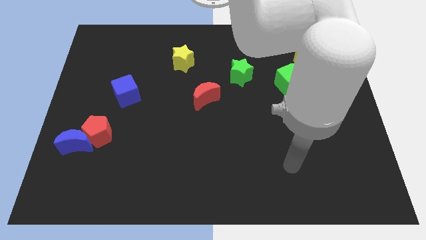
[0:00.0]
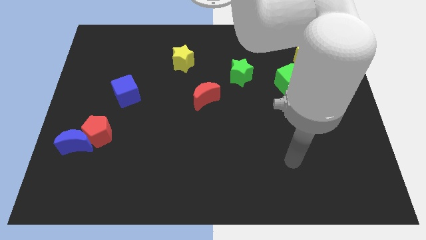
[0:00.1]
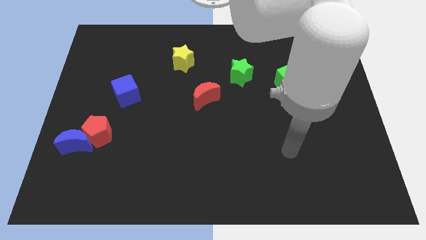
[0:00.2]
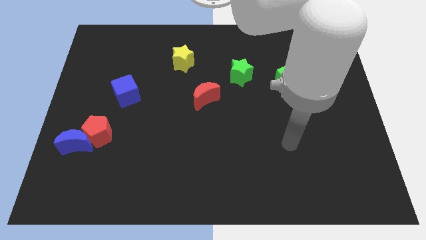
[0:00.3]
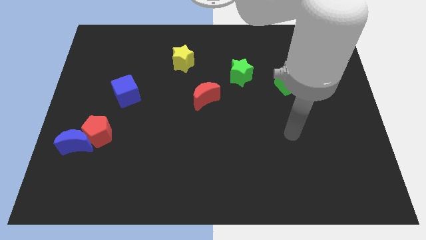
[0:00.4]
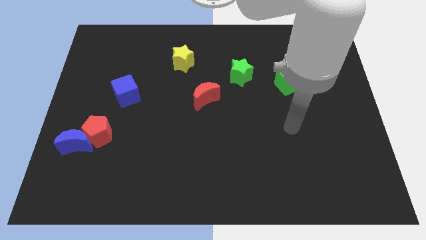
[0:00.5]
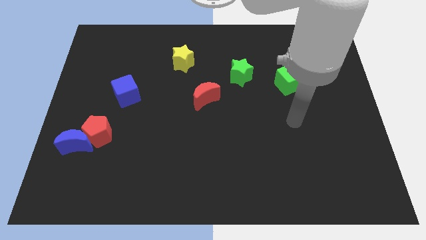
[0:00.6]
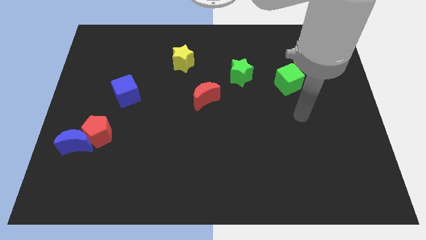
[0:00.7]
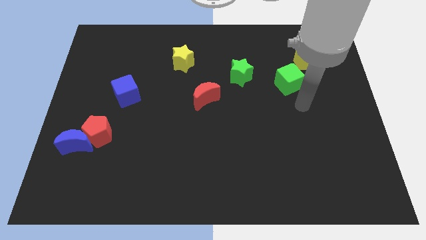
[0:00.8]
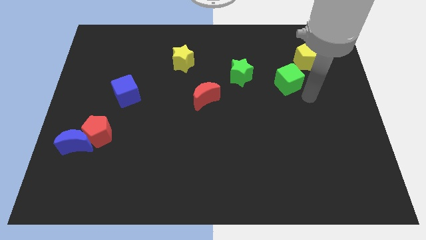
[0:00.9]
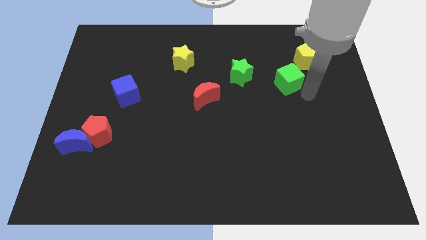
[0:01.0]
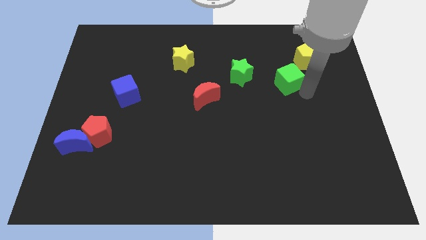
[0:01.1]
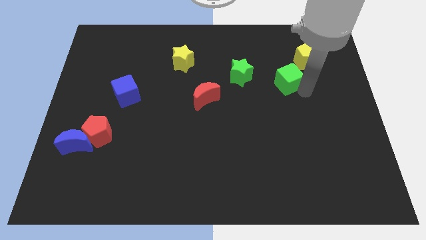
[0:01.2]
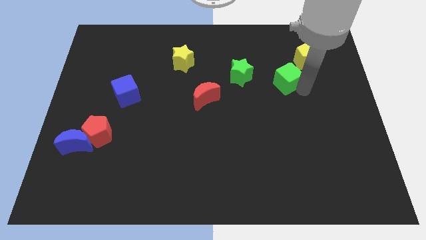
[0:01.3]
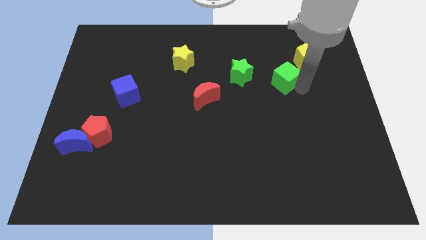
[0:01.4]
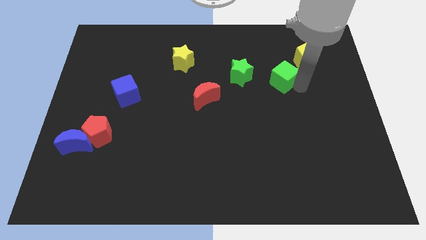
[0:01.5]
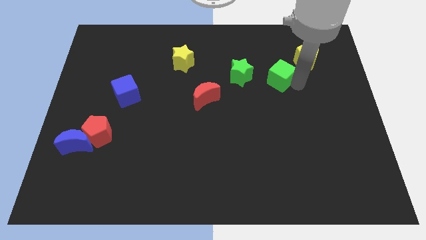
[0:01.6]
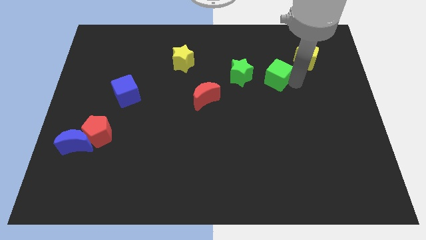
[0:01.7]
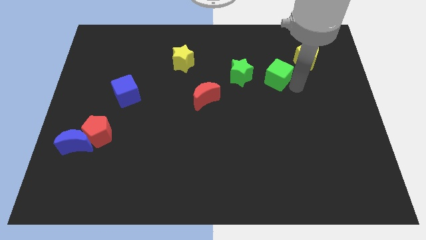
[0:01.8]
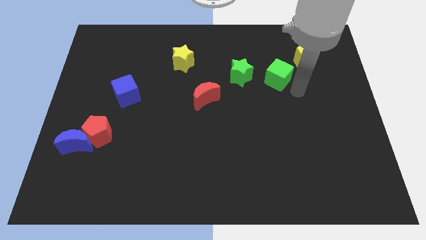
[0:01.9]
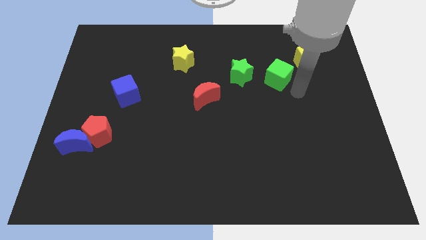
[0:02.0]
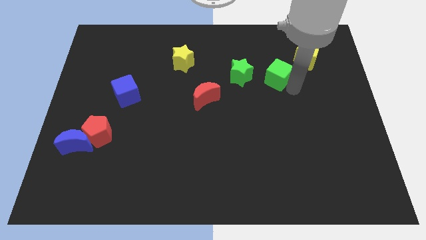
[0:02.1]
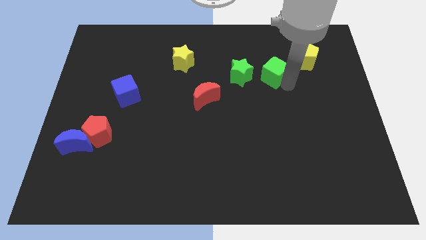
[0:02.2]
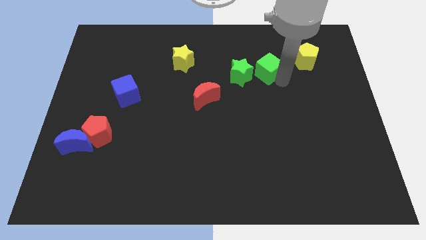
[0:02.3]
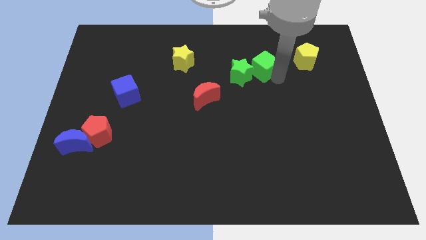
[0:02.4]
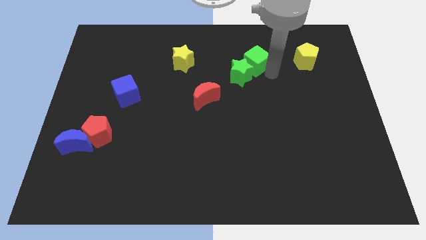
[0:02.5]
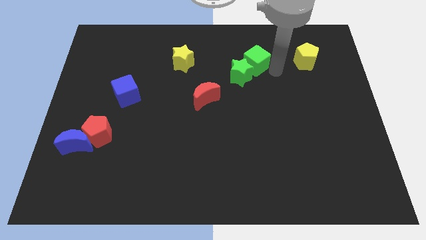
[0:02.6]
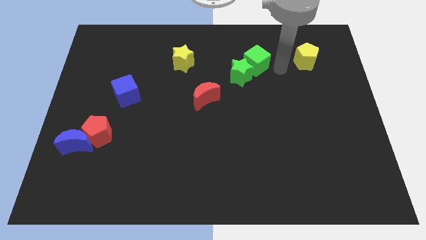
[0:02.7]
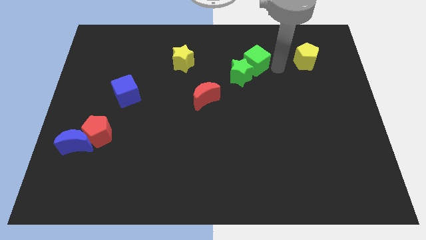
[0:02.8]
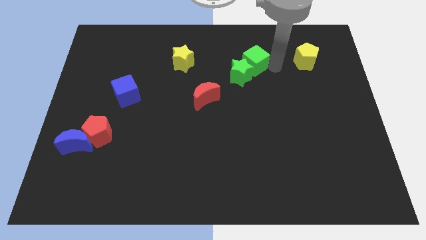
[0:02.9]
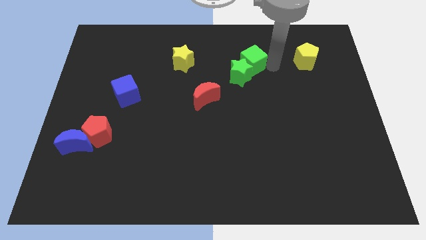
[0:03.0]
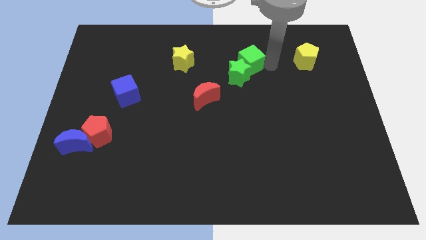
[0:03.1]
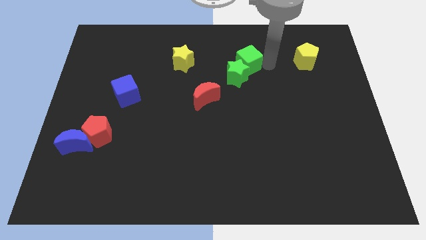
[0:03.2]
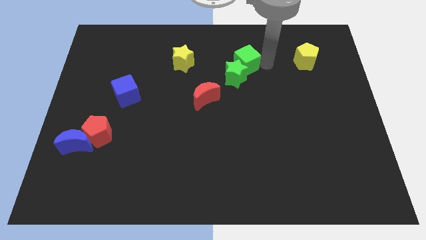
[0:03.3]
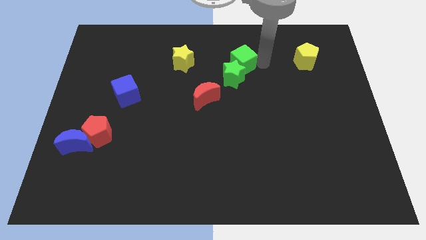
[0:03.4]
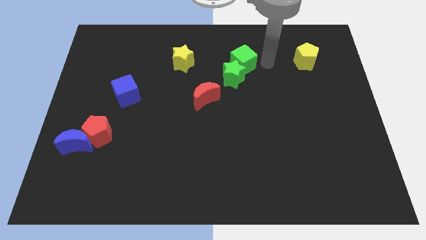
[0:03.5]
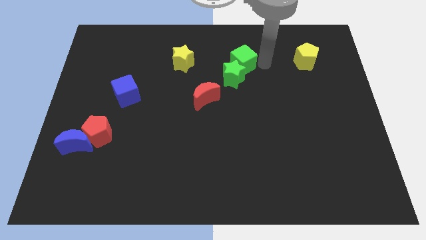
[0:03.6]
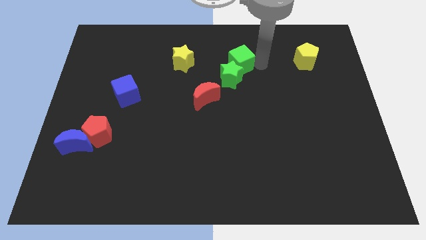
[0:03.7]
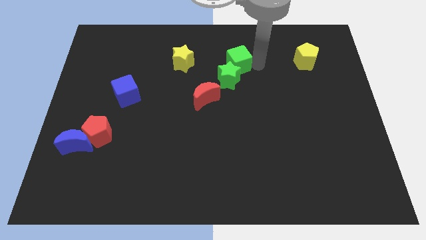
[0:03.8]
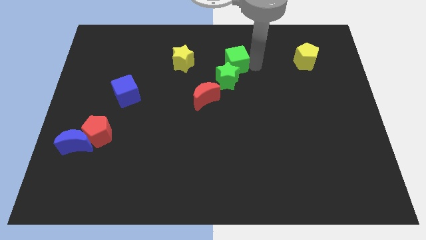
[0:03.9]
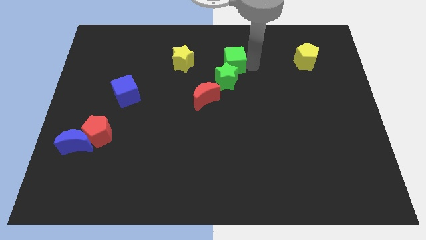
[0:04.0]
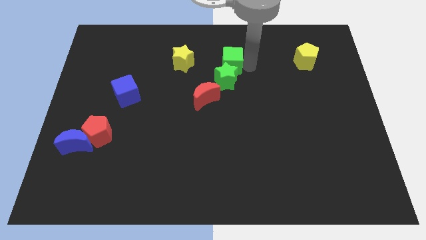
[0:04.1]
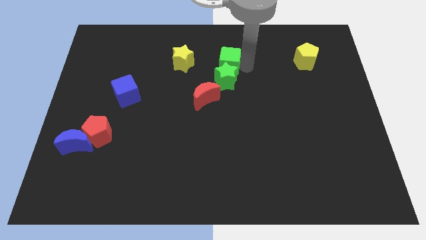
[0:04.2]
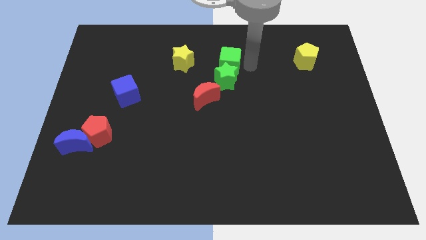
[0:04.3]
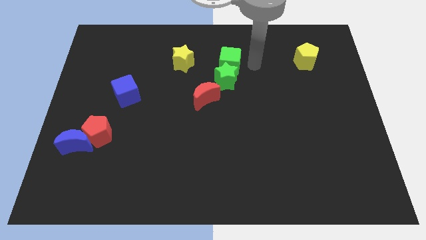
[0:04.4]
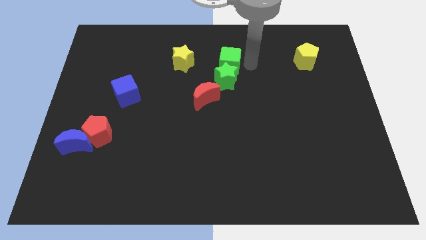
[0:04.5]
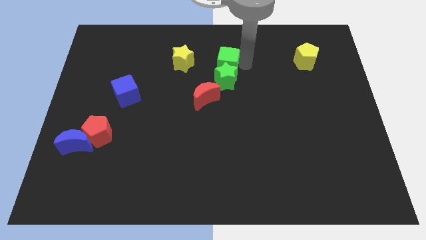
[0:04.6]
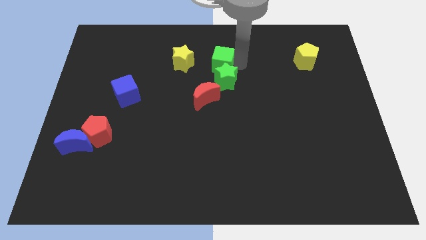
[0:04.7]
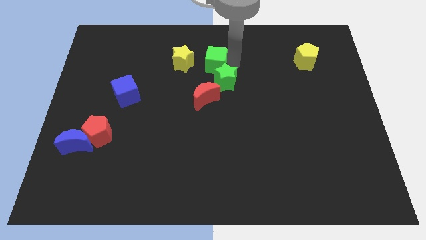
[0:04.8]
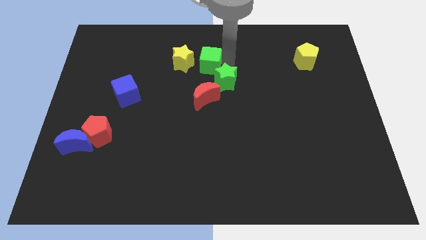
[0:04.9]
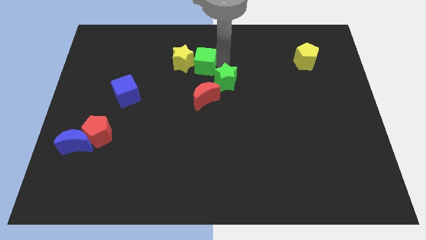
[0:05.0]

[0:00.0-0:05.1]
push the green cube to the yellow star

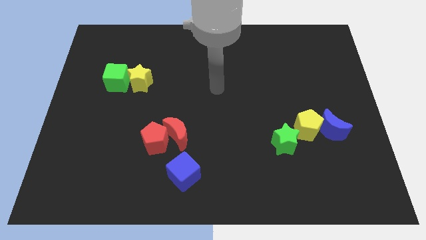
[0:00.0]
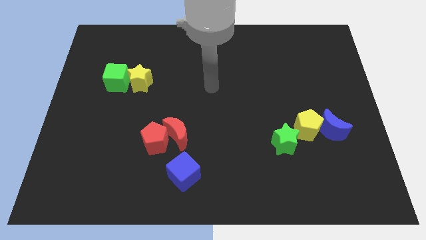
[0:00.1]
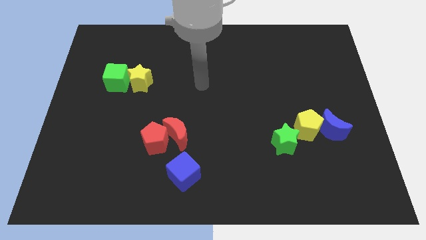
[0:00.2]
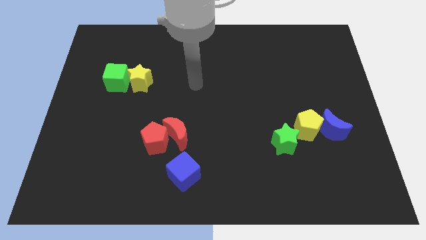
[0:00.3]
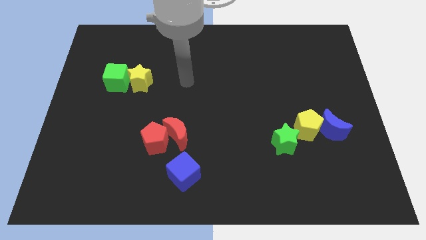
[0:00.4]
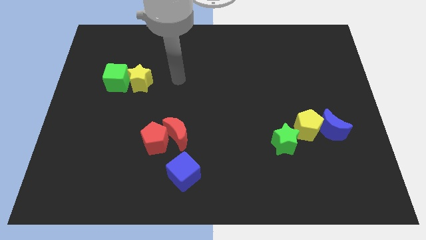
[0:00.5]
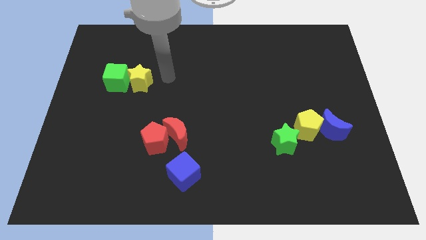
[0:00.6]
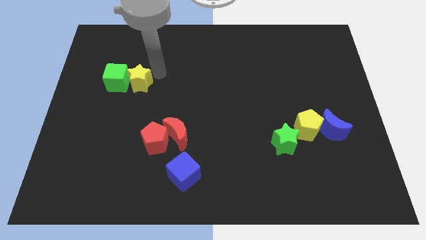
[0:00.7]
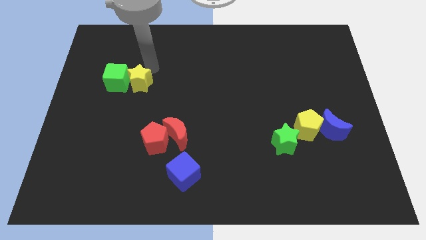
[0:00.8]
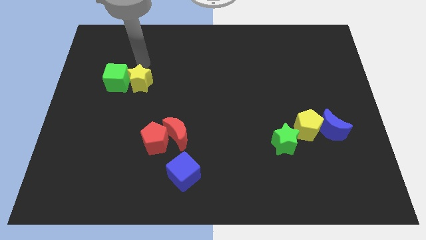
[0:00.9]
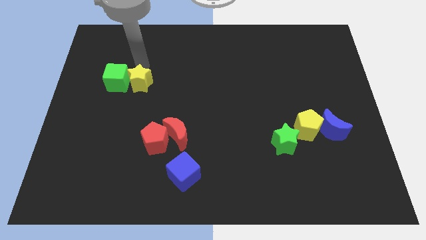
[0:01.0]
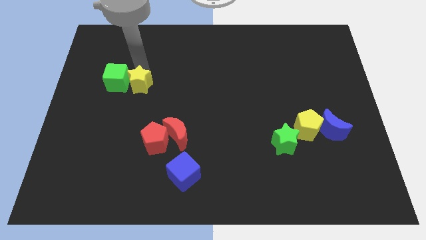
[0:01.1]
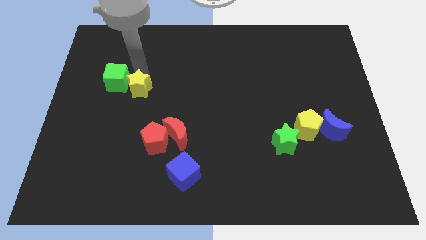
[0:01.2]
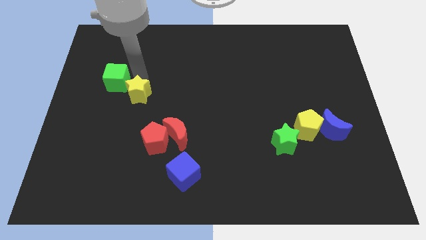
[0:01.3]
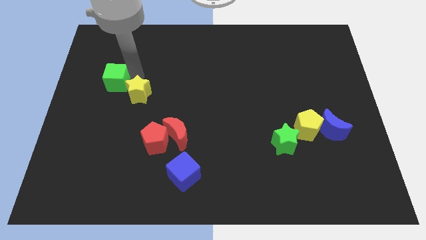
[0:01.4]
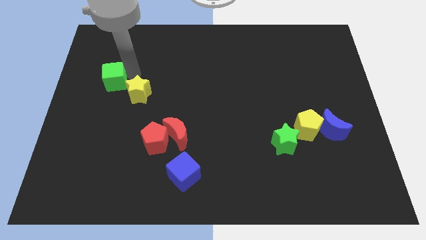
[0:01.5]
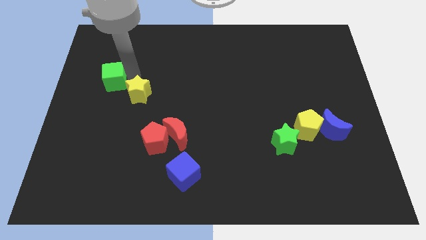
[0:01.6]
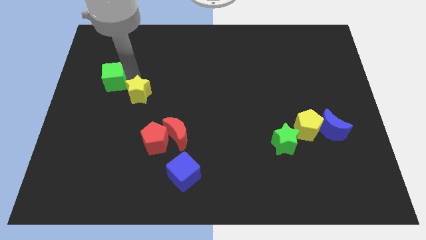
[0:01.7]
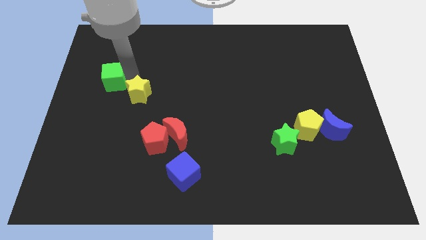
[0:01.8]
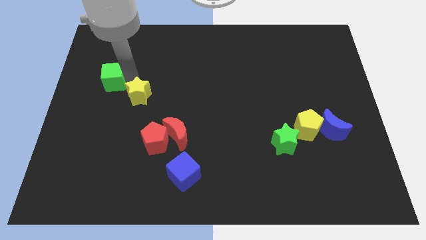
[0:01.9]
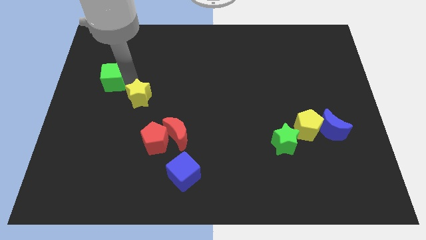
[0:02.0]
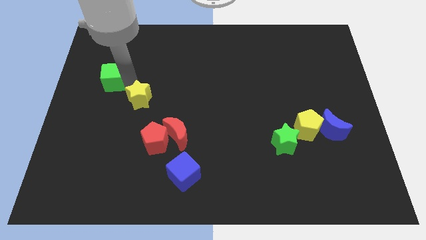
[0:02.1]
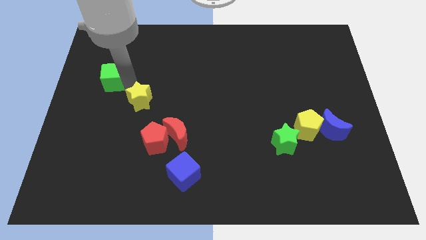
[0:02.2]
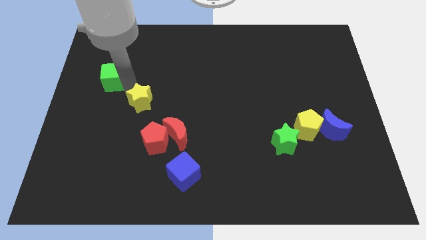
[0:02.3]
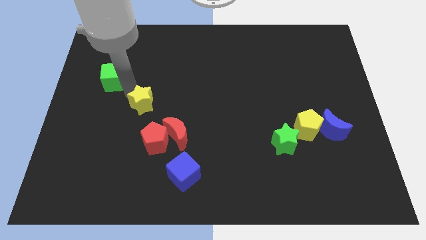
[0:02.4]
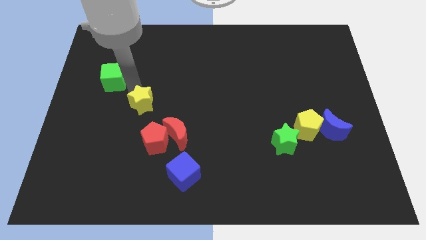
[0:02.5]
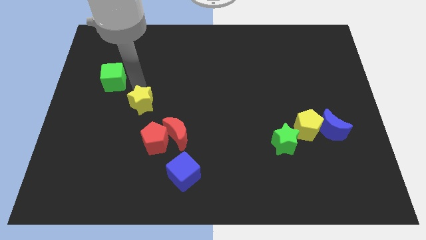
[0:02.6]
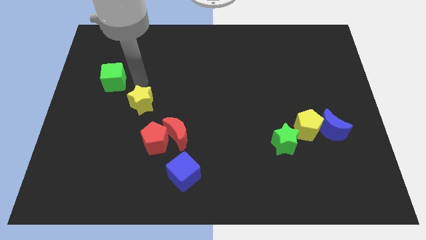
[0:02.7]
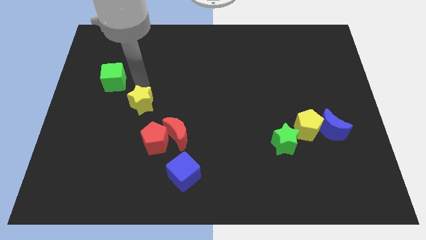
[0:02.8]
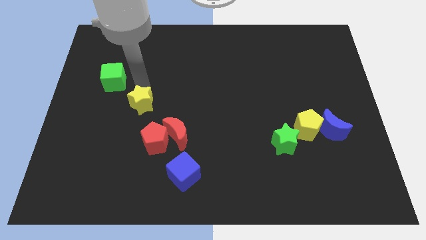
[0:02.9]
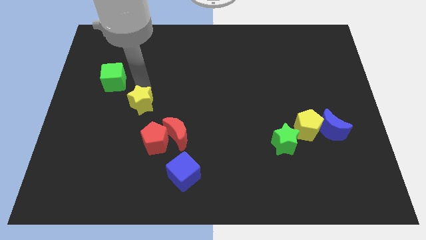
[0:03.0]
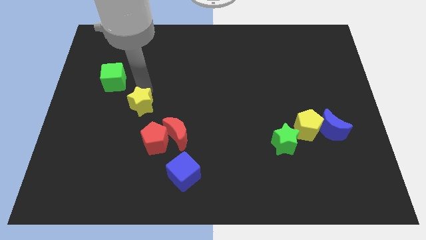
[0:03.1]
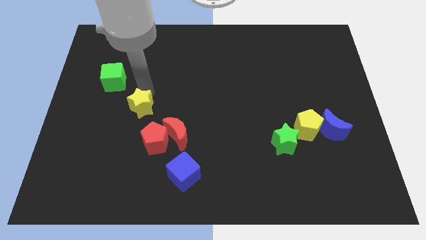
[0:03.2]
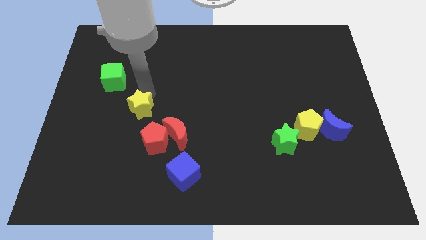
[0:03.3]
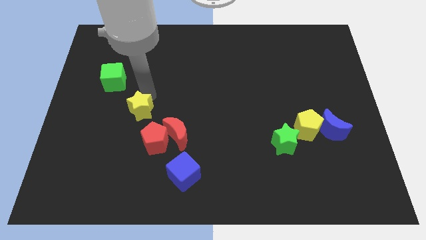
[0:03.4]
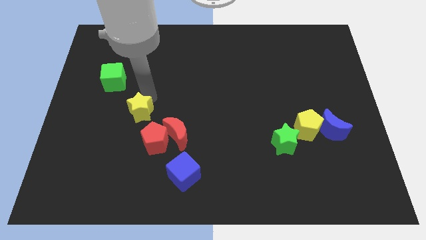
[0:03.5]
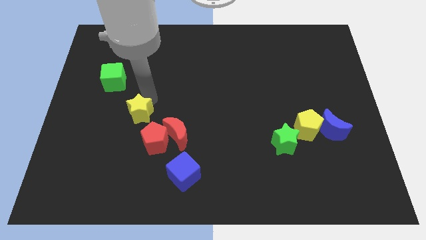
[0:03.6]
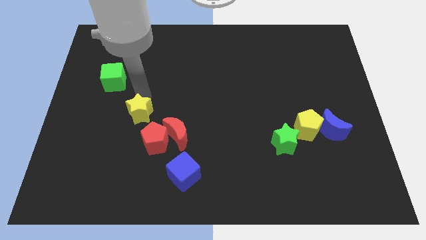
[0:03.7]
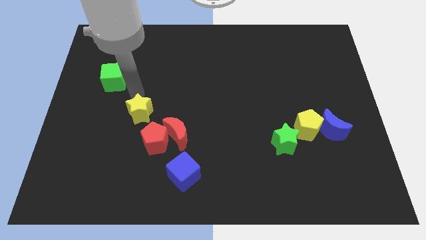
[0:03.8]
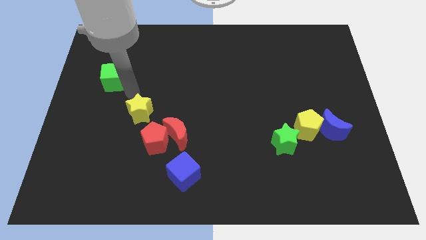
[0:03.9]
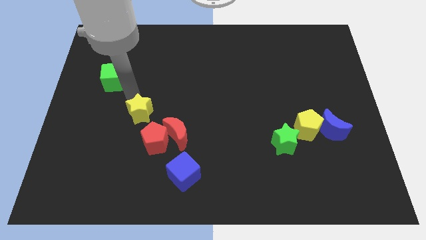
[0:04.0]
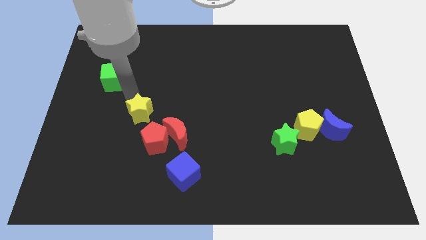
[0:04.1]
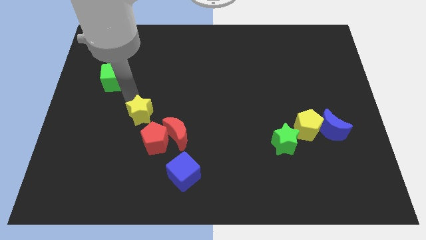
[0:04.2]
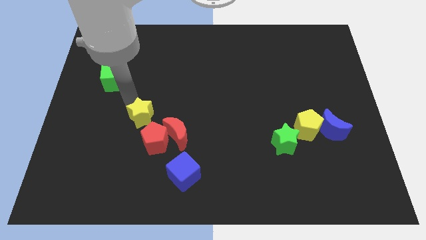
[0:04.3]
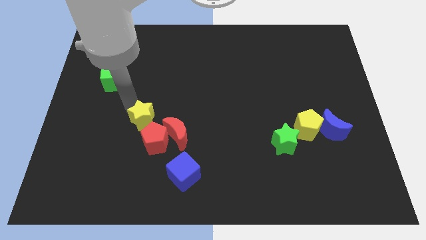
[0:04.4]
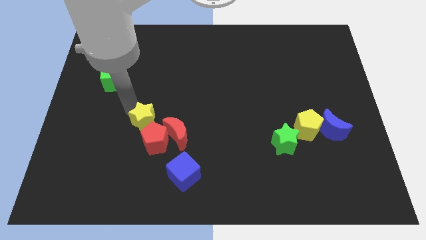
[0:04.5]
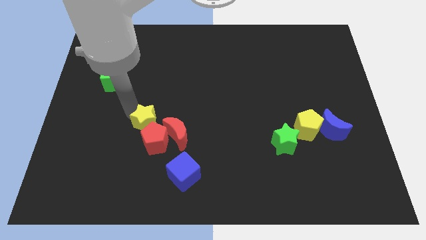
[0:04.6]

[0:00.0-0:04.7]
move the yellow star to the red pentagon
